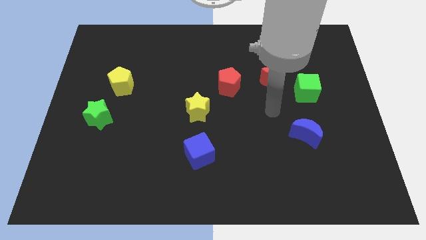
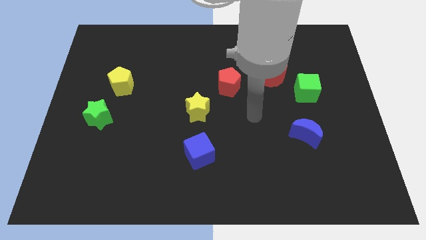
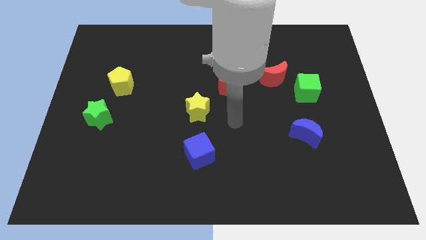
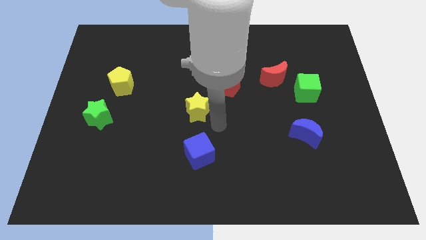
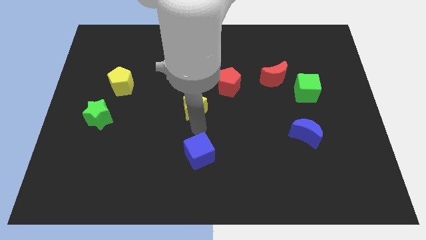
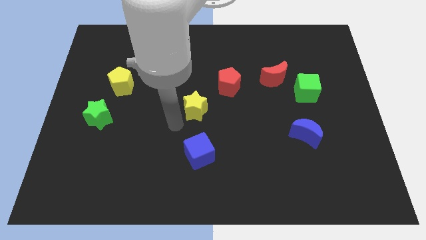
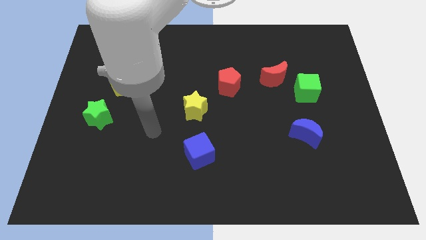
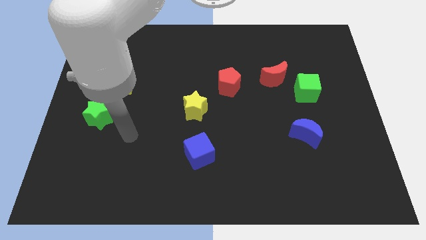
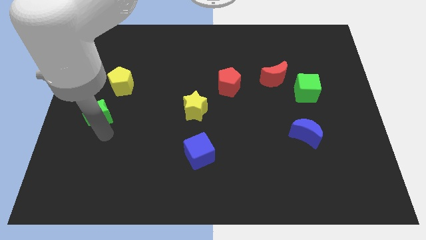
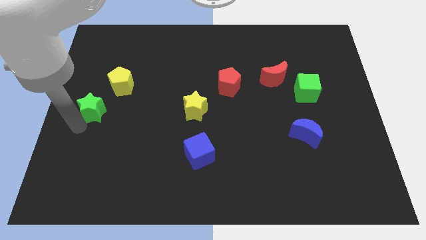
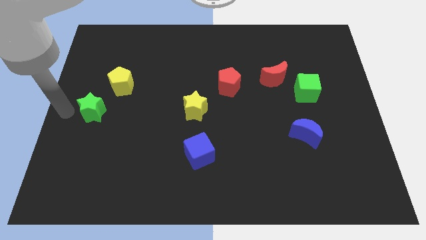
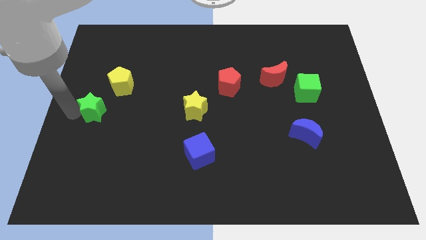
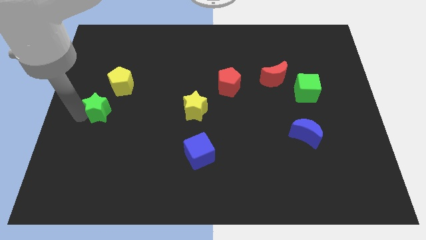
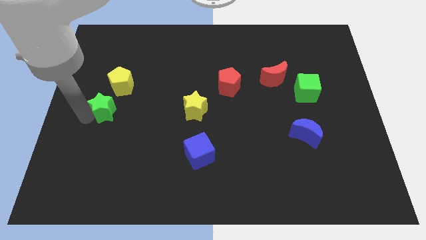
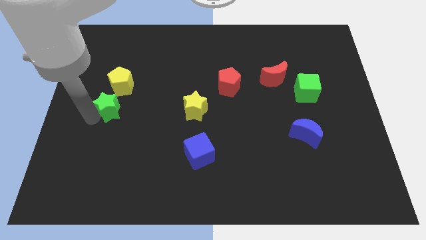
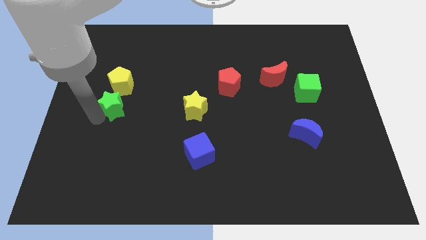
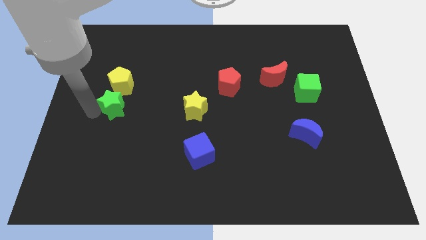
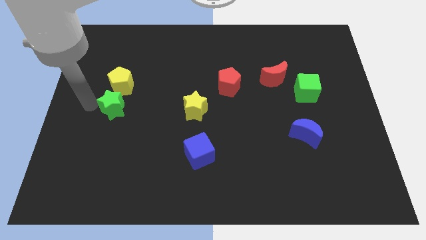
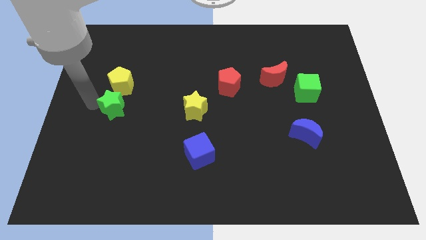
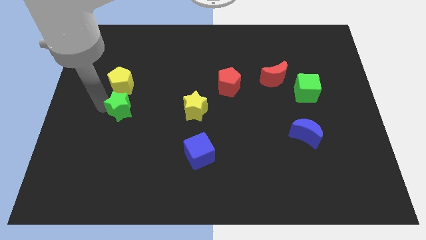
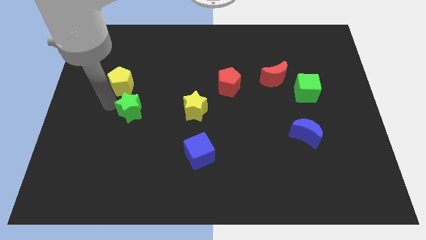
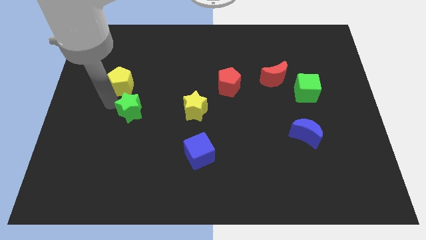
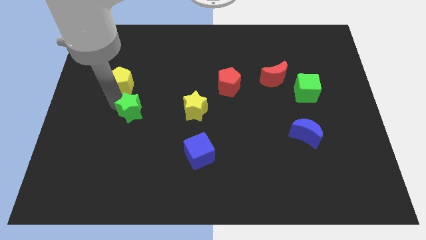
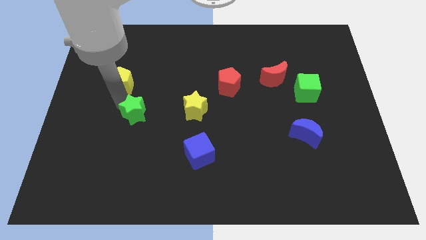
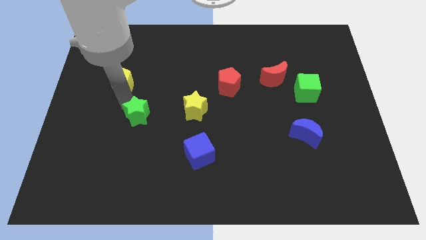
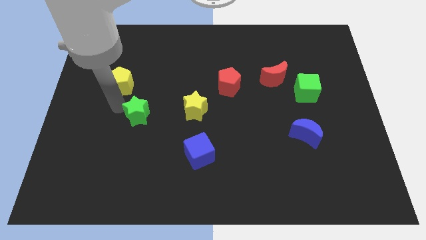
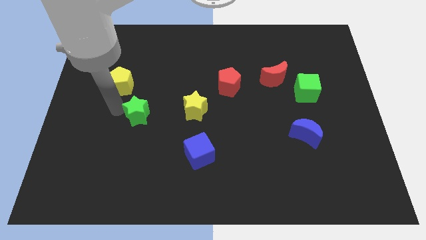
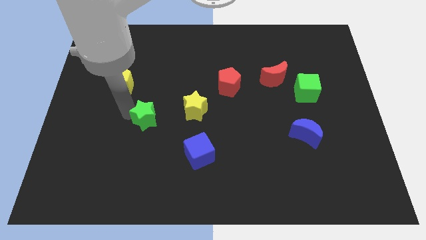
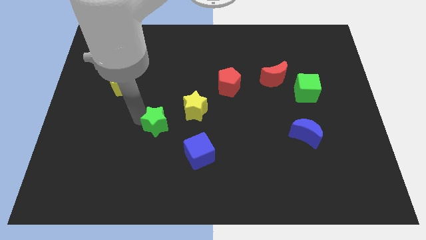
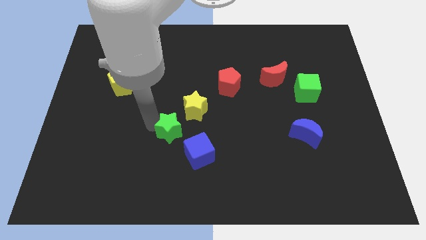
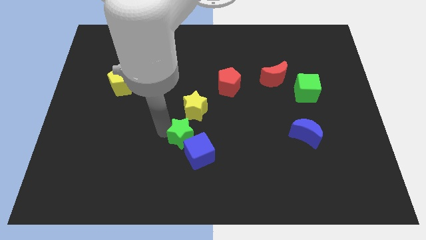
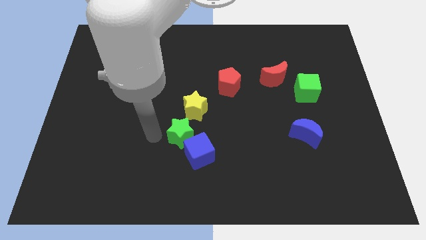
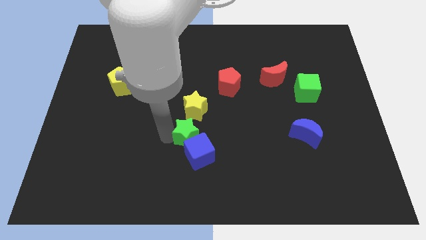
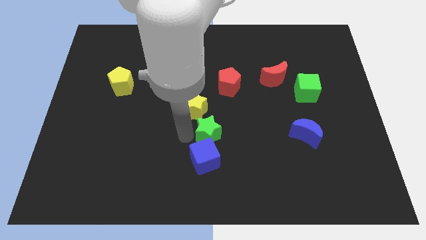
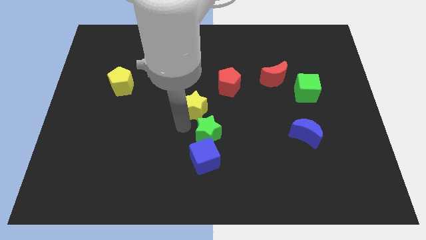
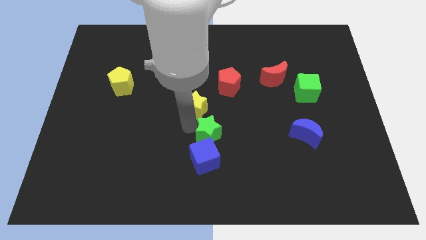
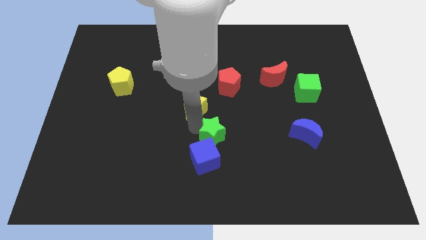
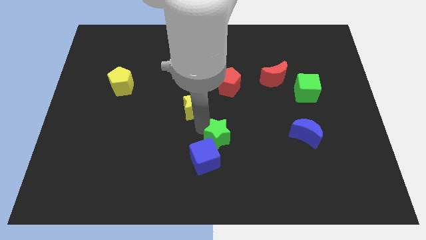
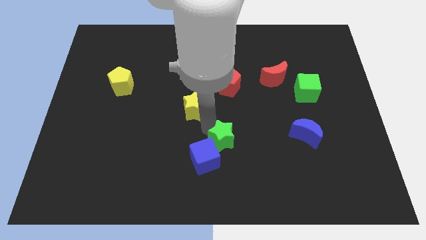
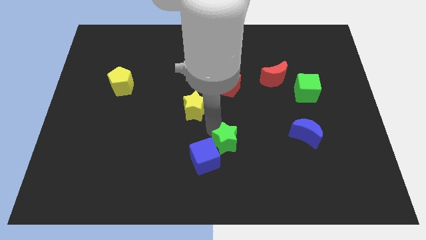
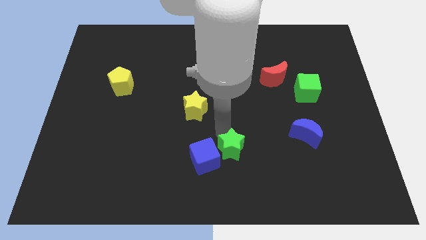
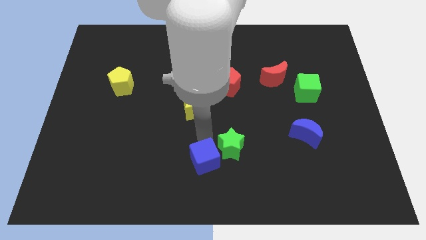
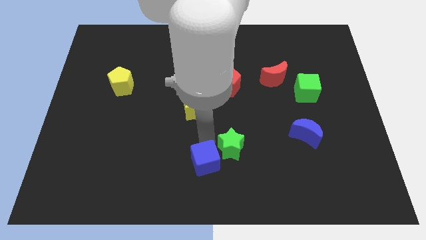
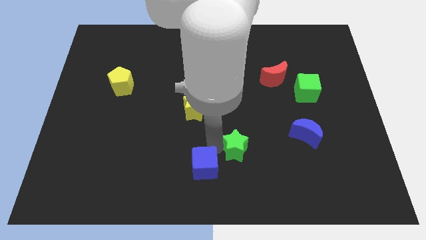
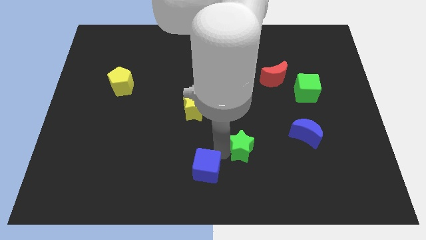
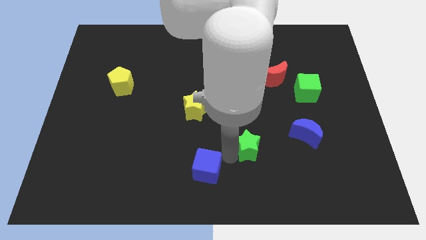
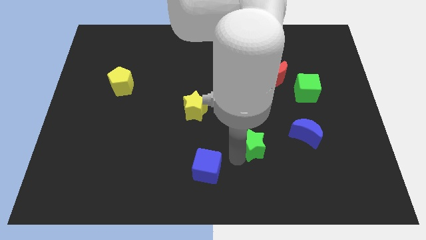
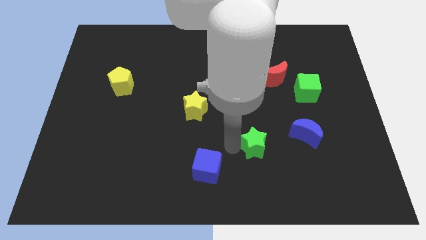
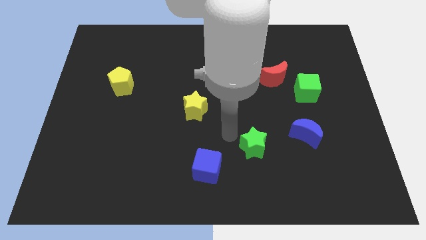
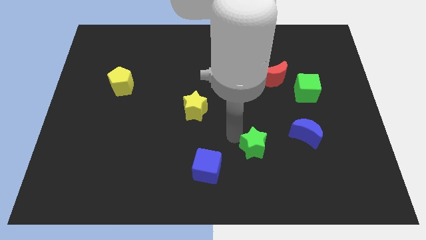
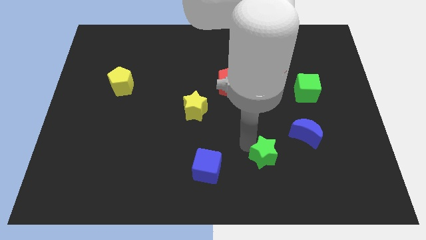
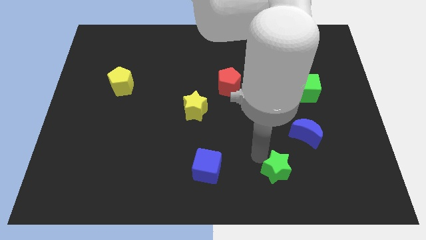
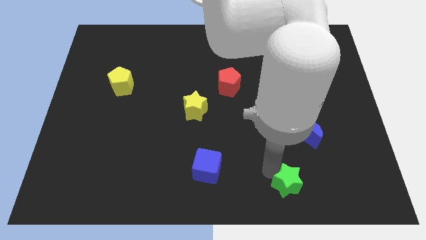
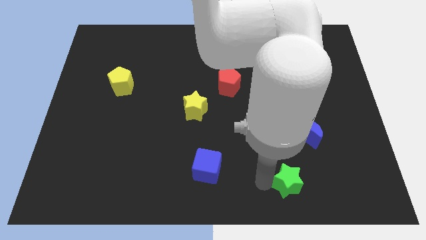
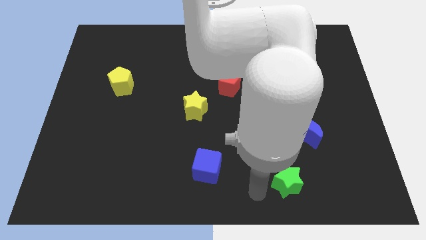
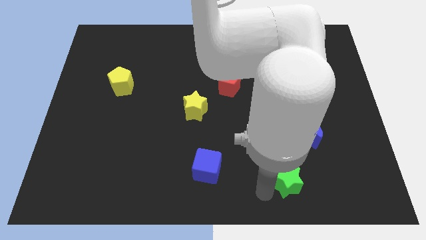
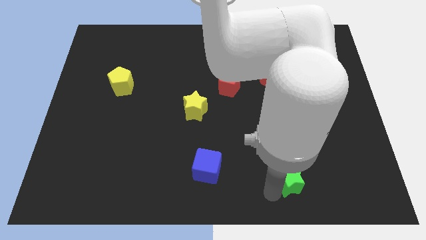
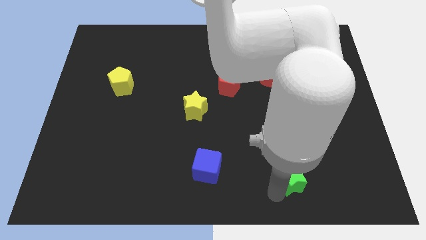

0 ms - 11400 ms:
slide the green star to the bottom side of the blue moon
